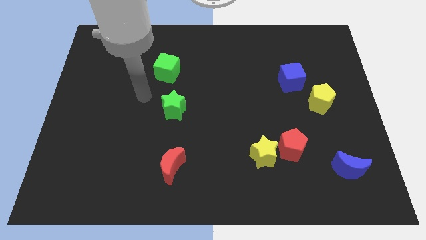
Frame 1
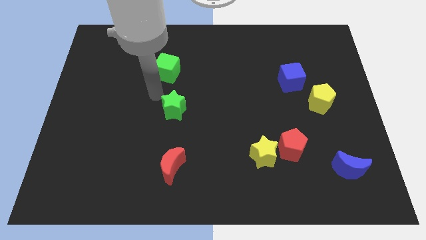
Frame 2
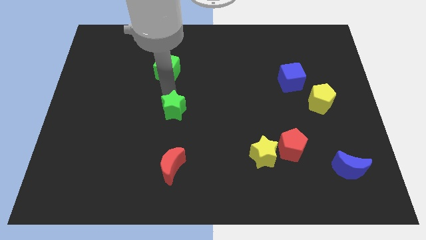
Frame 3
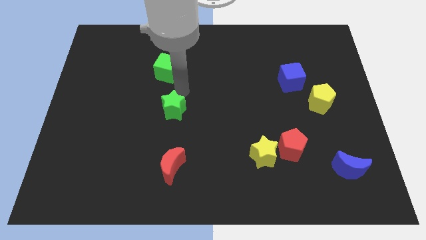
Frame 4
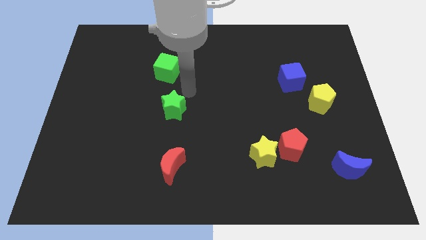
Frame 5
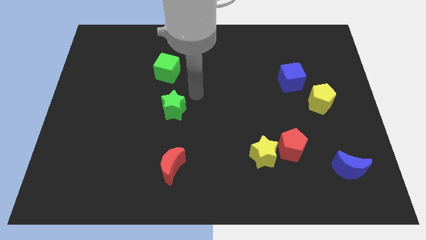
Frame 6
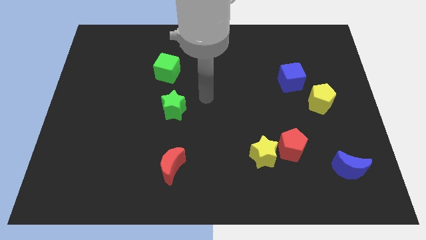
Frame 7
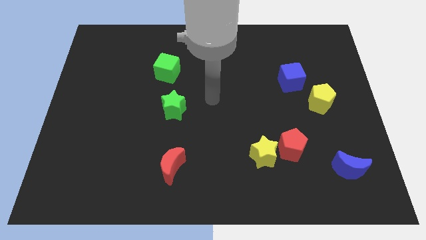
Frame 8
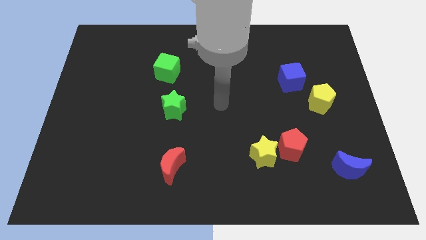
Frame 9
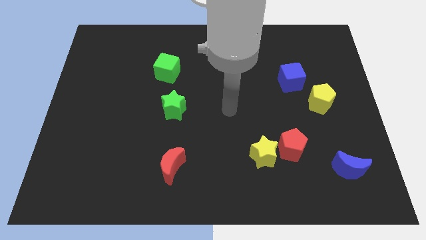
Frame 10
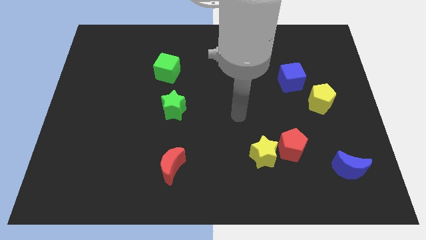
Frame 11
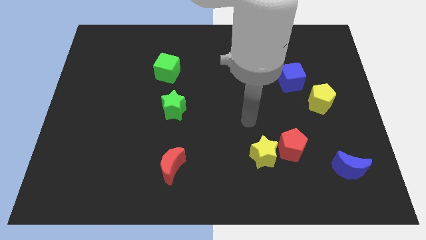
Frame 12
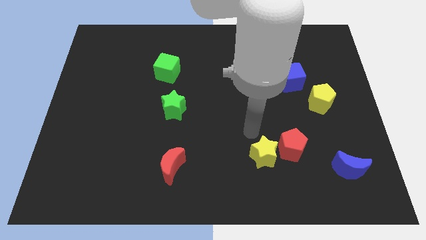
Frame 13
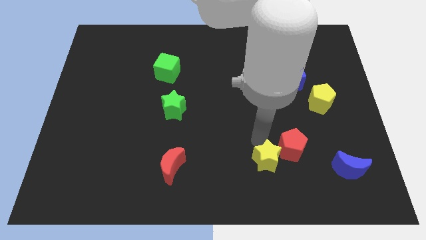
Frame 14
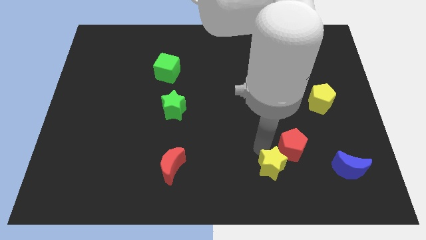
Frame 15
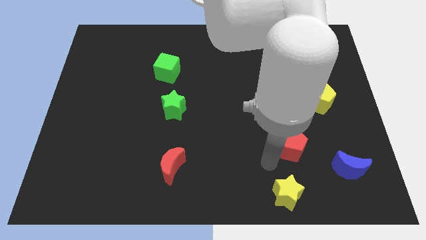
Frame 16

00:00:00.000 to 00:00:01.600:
pull the red pentagon apart from the yellow star

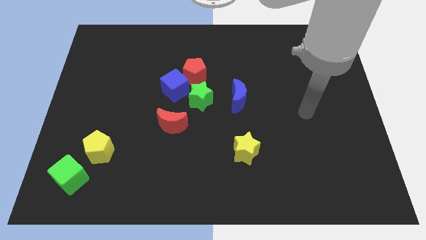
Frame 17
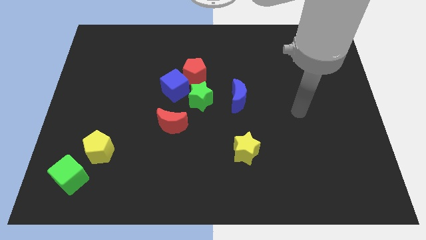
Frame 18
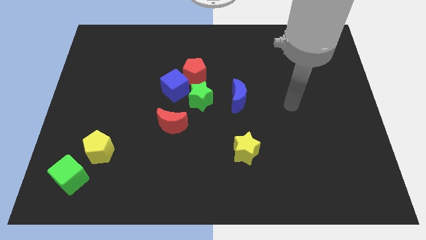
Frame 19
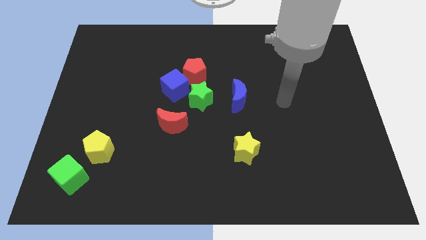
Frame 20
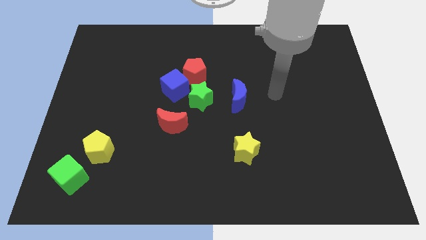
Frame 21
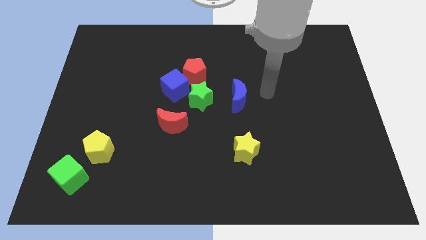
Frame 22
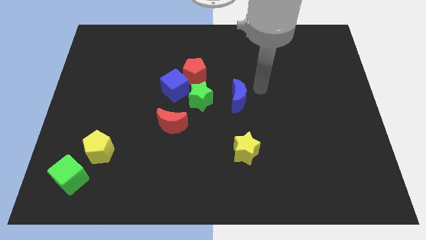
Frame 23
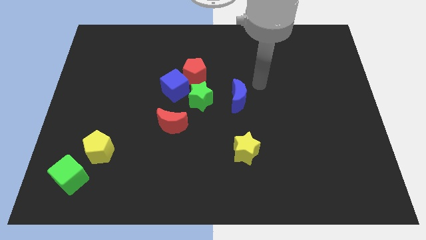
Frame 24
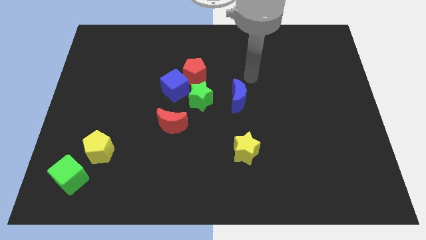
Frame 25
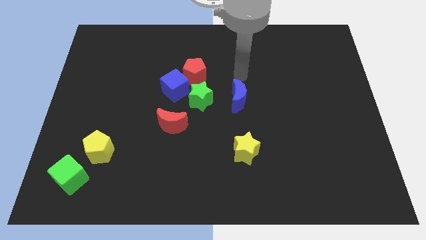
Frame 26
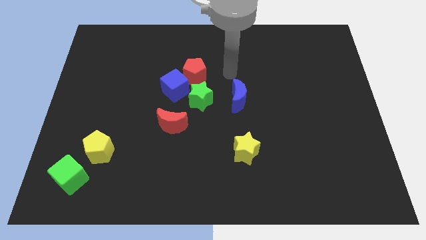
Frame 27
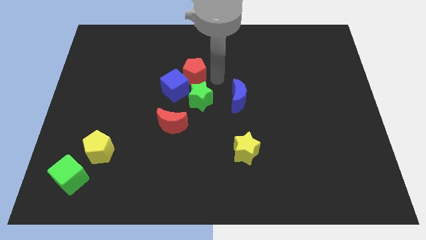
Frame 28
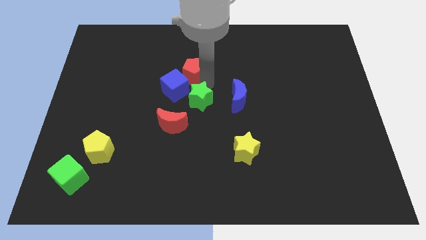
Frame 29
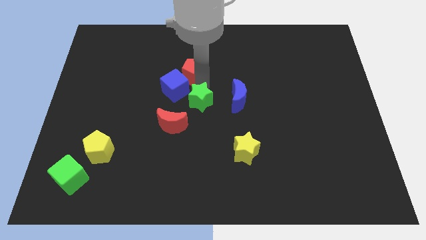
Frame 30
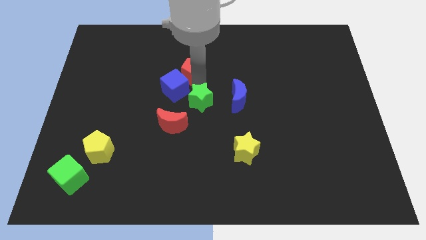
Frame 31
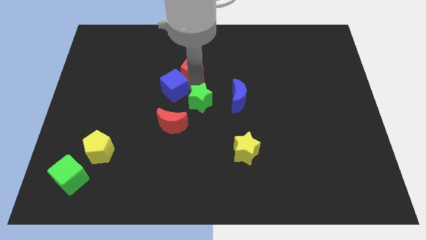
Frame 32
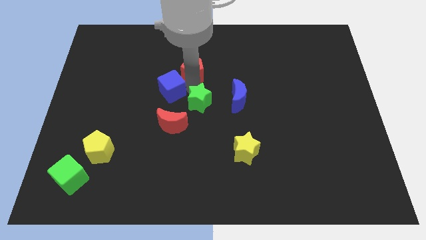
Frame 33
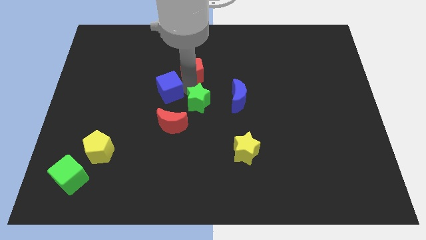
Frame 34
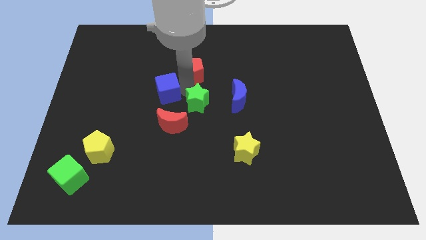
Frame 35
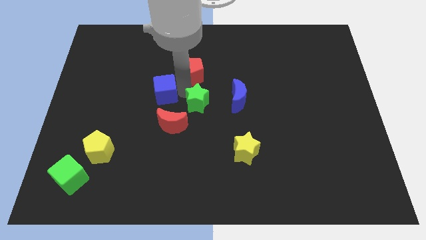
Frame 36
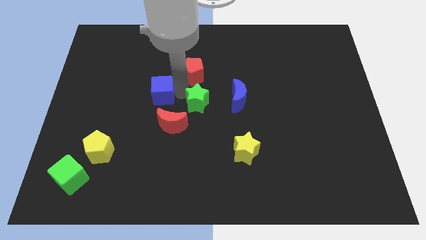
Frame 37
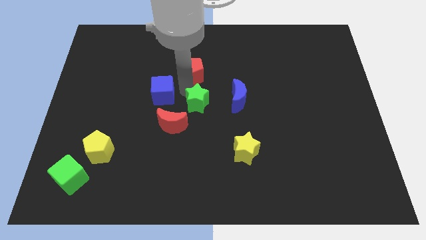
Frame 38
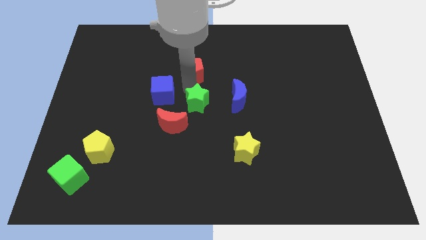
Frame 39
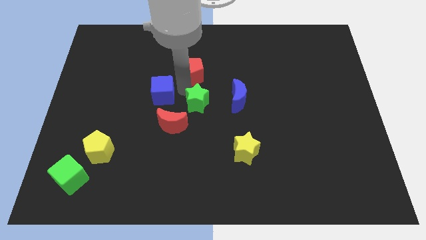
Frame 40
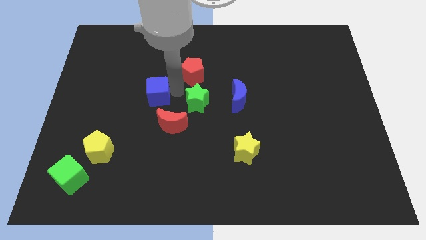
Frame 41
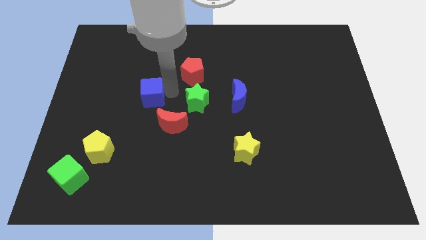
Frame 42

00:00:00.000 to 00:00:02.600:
pull the blue cube apart from the red pentagon and green star

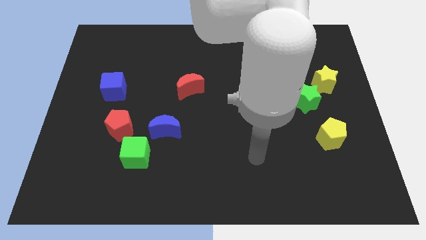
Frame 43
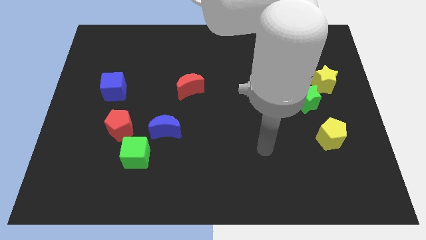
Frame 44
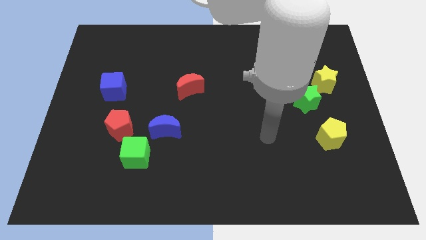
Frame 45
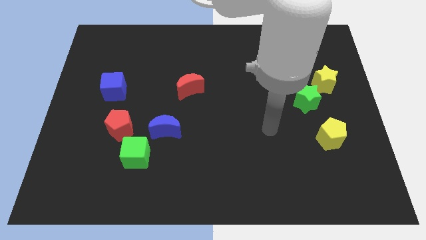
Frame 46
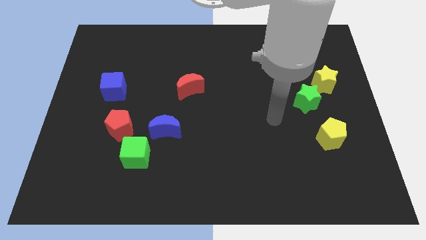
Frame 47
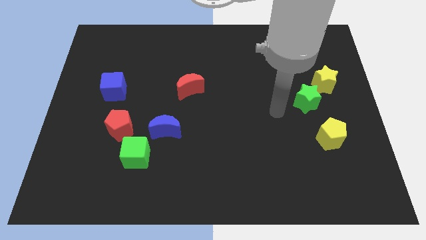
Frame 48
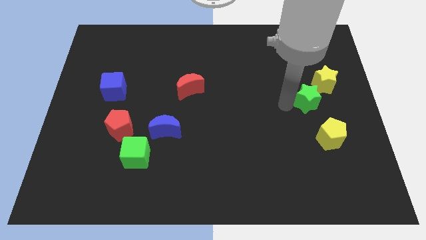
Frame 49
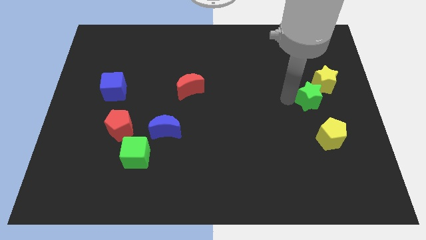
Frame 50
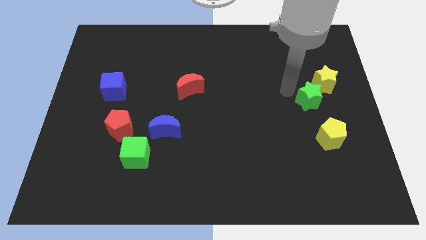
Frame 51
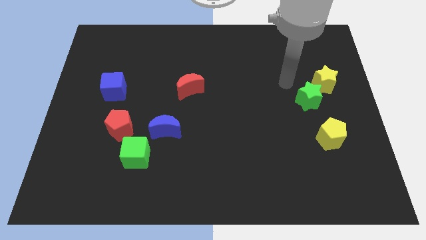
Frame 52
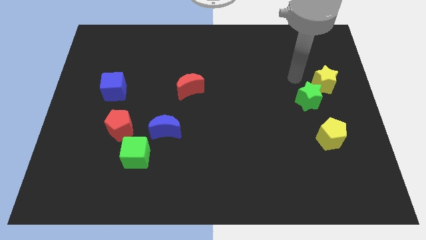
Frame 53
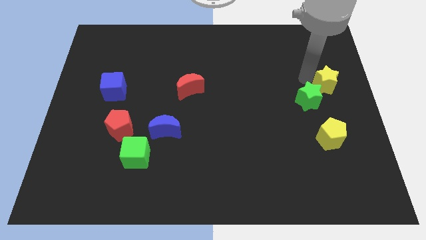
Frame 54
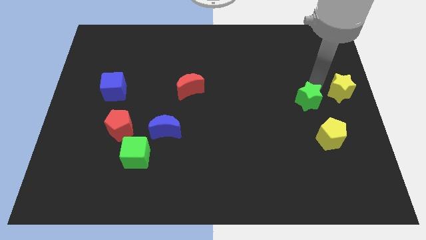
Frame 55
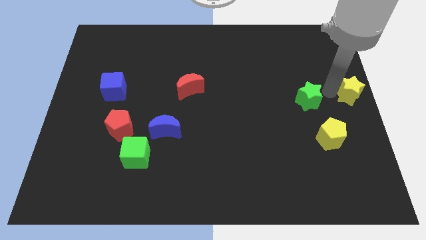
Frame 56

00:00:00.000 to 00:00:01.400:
pull the green star apart from the yellow star

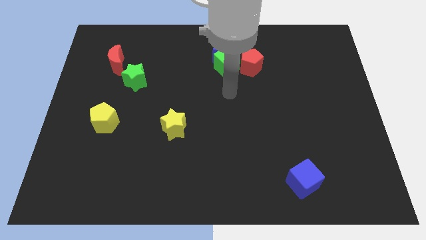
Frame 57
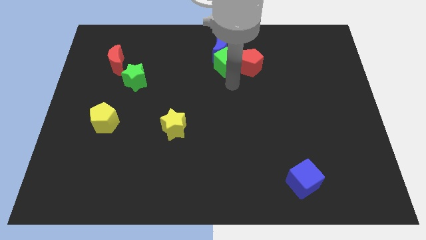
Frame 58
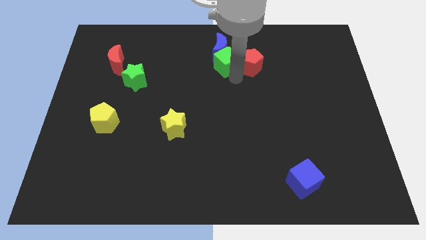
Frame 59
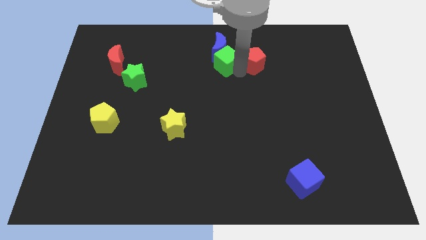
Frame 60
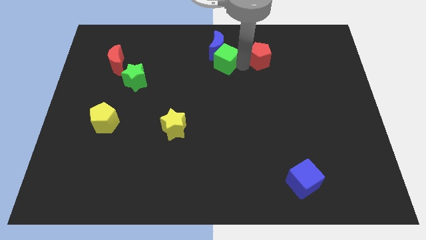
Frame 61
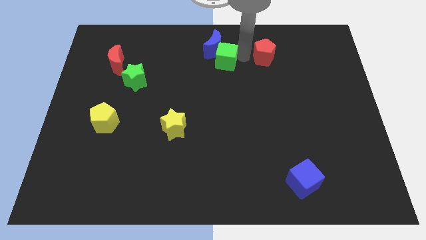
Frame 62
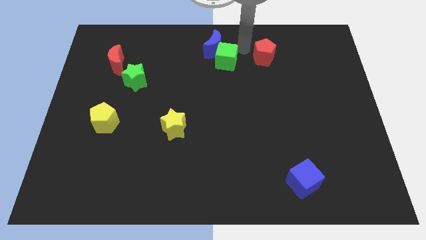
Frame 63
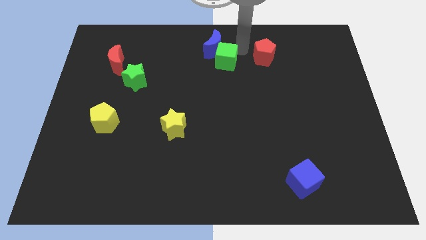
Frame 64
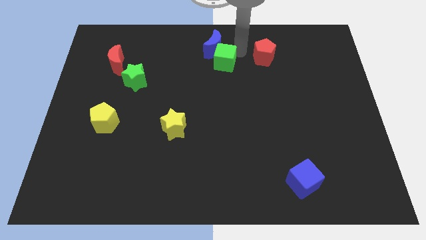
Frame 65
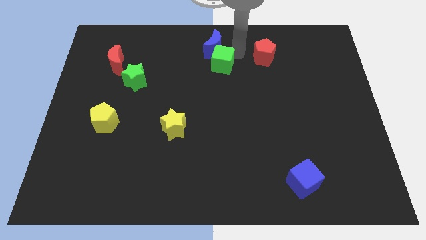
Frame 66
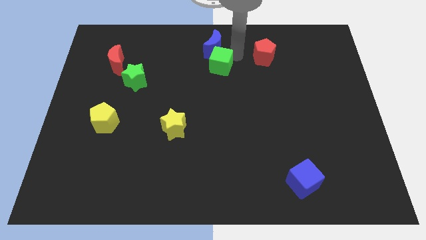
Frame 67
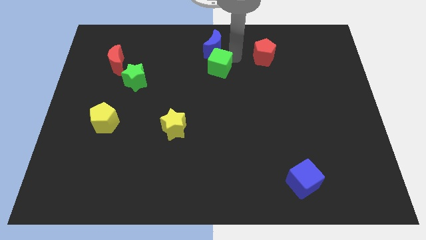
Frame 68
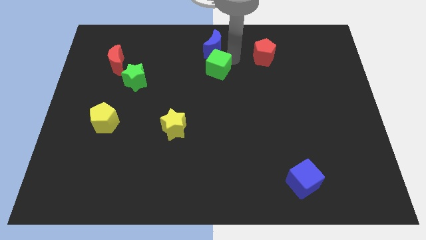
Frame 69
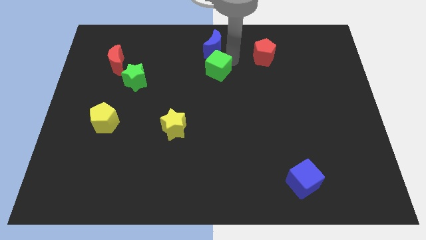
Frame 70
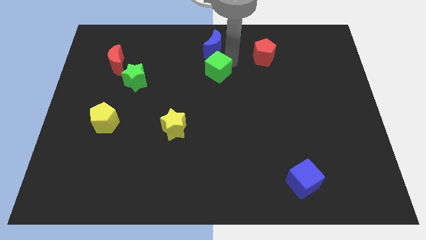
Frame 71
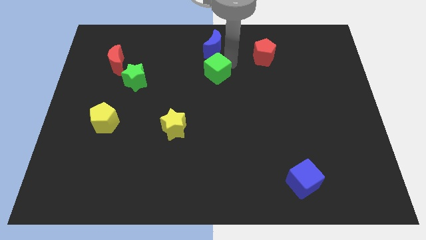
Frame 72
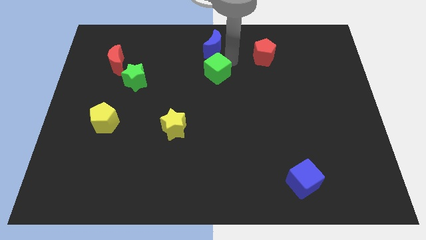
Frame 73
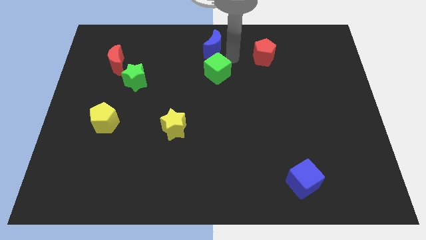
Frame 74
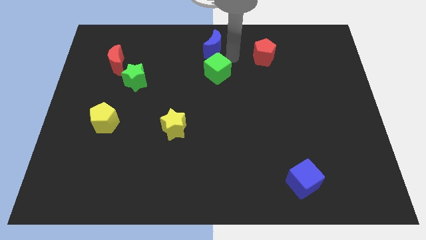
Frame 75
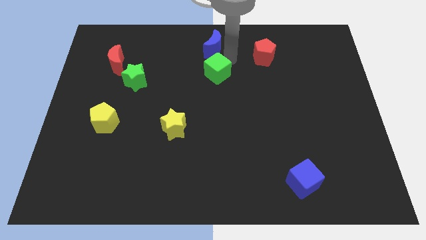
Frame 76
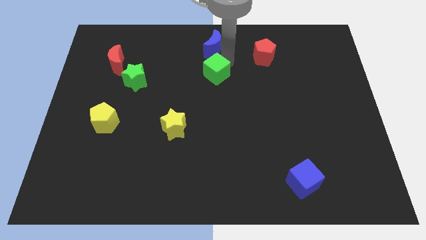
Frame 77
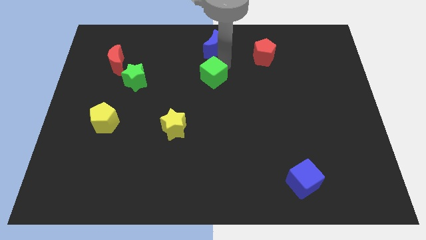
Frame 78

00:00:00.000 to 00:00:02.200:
pull the green cube apart from the blue moon and red pentagon

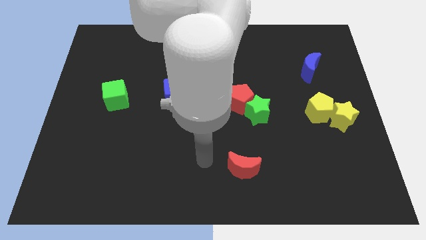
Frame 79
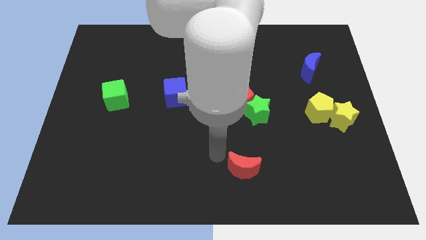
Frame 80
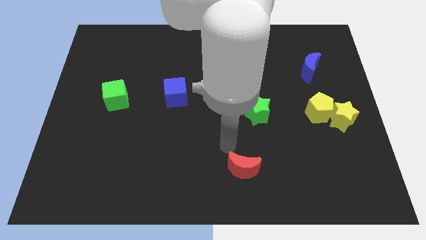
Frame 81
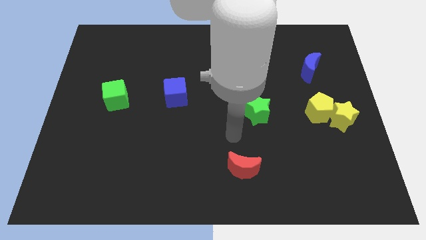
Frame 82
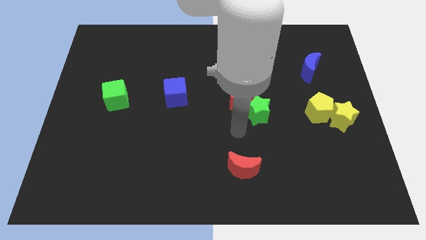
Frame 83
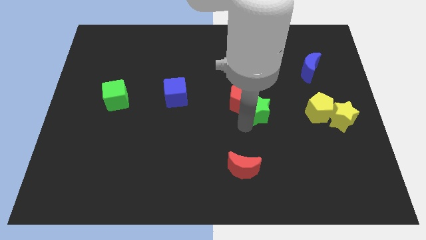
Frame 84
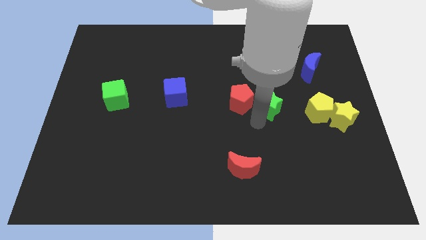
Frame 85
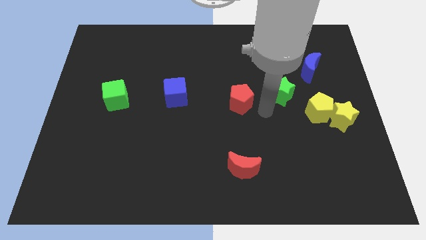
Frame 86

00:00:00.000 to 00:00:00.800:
pull the red pentagon apart from the green star

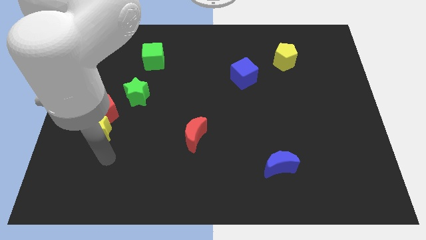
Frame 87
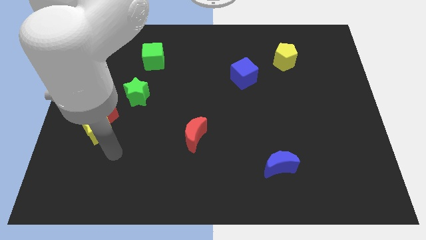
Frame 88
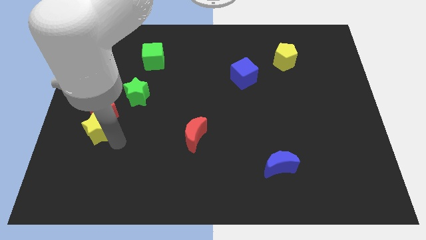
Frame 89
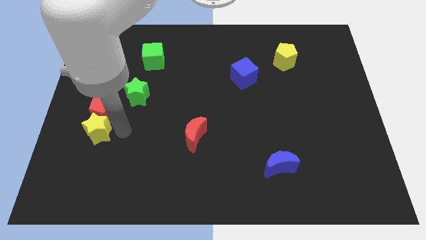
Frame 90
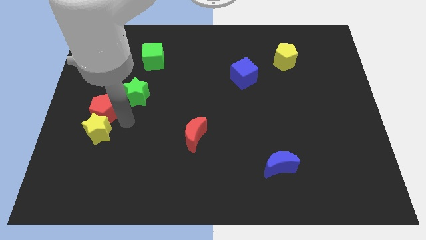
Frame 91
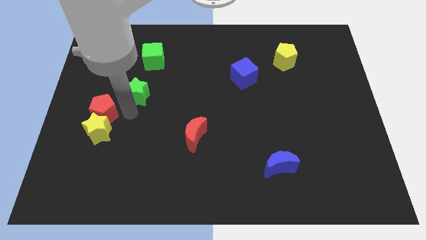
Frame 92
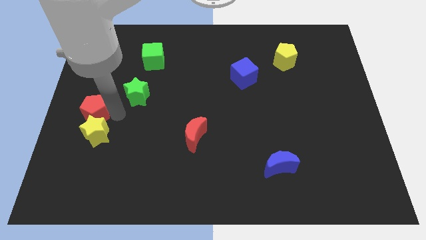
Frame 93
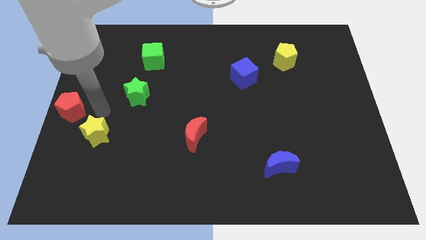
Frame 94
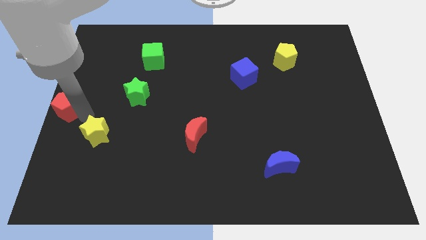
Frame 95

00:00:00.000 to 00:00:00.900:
move the yellow star away from the red pentagon

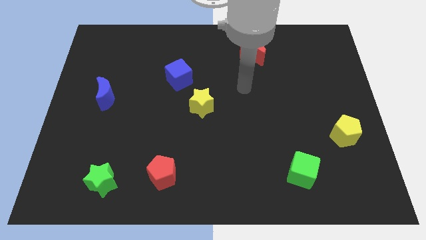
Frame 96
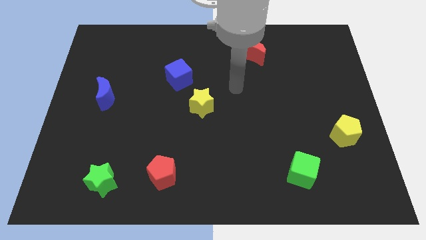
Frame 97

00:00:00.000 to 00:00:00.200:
move the blue cube away from the yellow star
